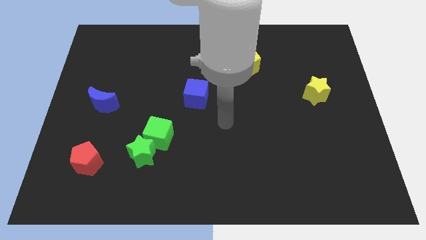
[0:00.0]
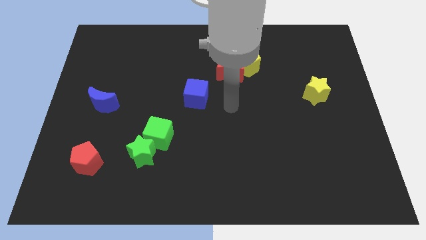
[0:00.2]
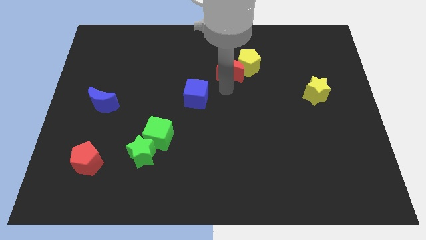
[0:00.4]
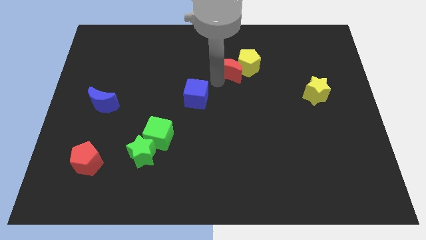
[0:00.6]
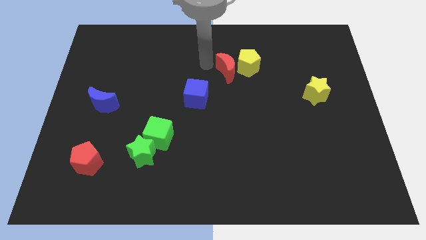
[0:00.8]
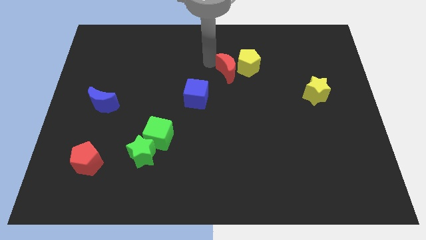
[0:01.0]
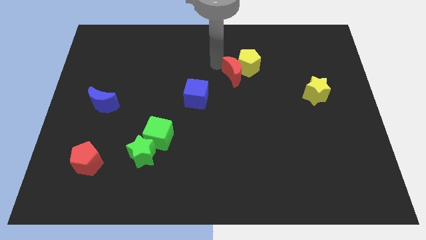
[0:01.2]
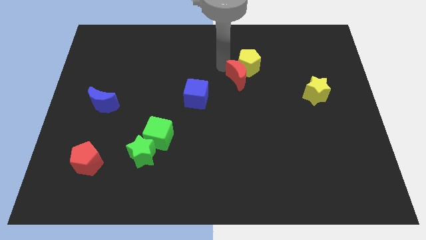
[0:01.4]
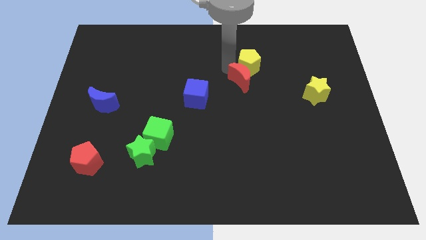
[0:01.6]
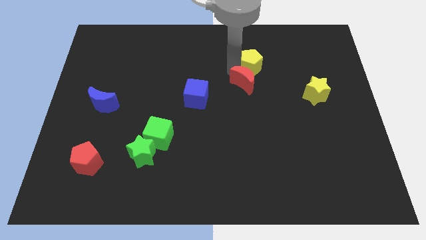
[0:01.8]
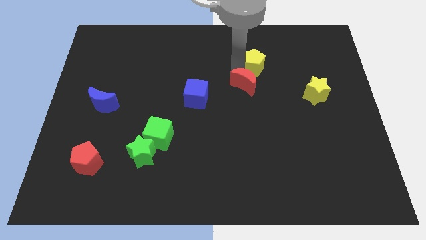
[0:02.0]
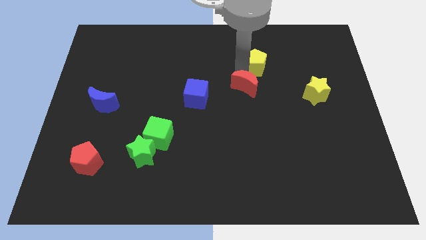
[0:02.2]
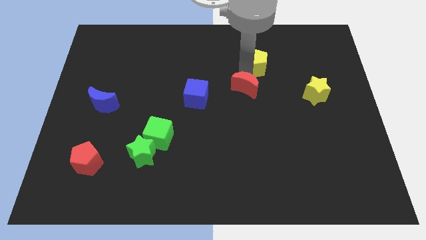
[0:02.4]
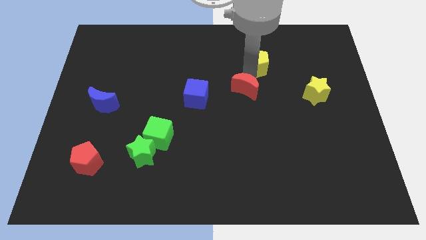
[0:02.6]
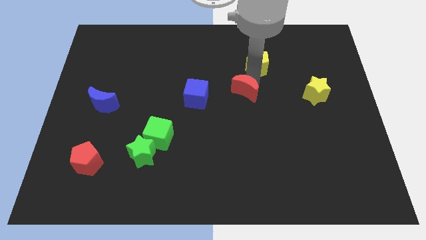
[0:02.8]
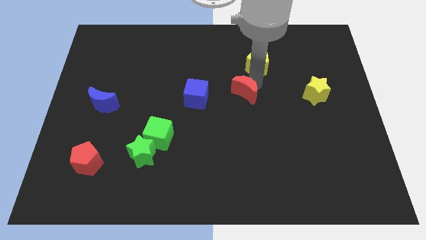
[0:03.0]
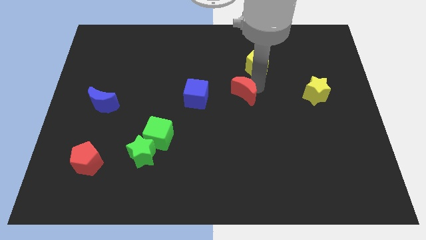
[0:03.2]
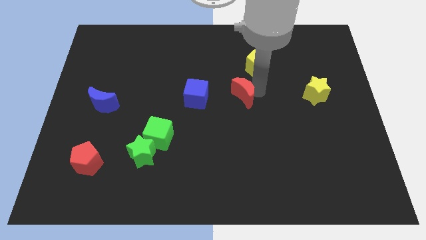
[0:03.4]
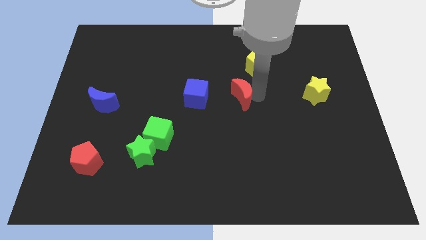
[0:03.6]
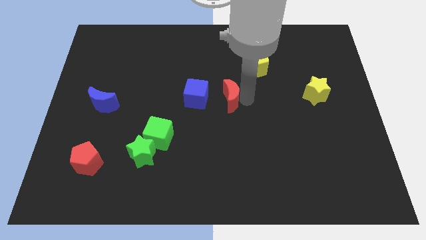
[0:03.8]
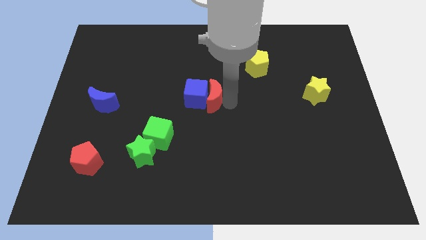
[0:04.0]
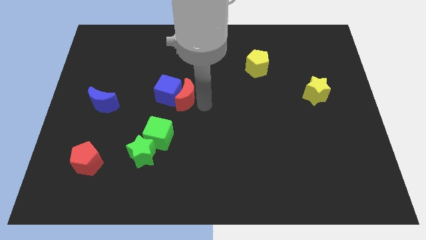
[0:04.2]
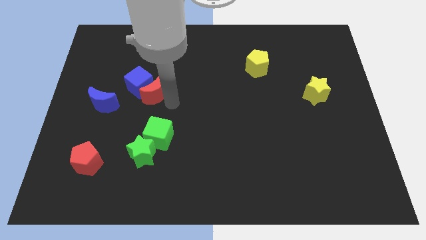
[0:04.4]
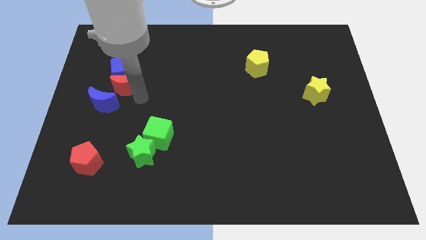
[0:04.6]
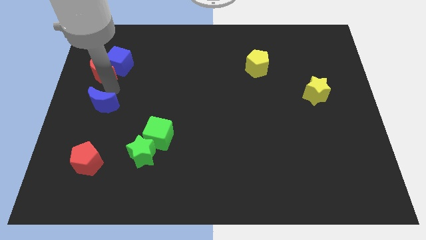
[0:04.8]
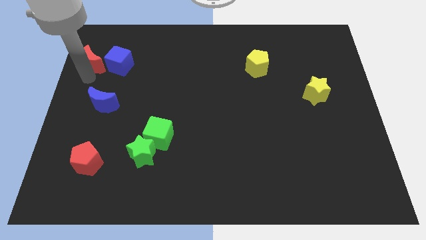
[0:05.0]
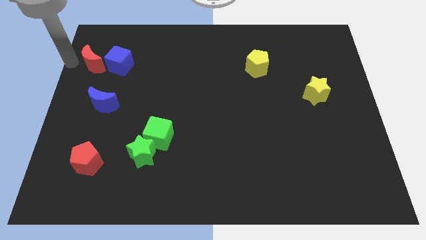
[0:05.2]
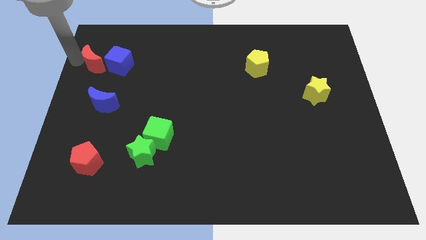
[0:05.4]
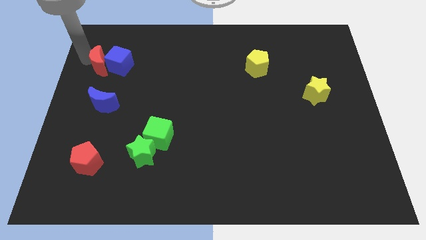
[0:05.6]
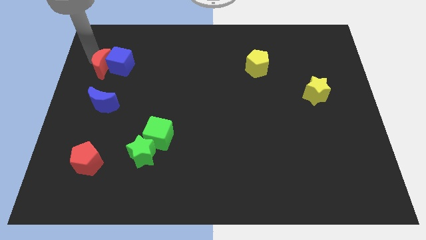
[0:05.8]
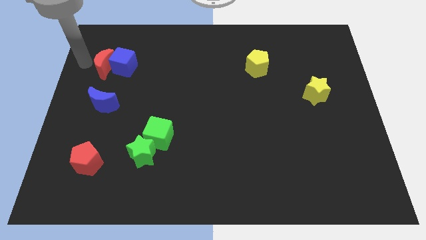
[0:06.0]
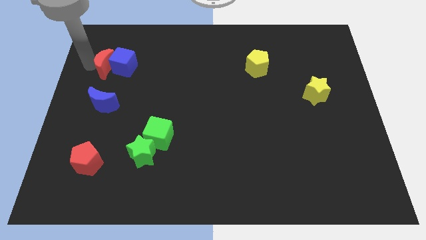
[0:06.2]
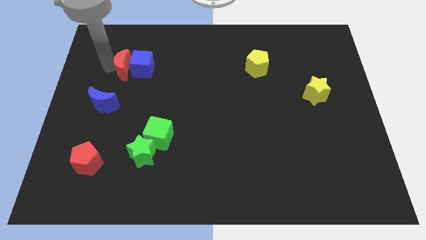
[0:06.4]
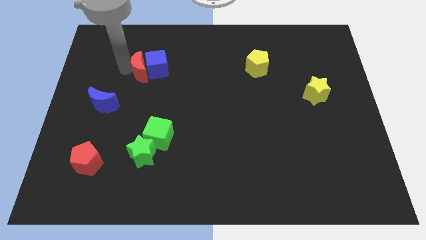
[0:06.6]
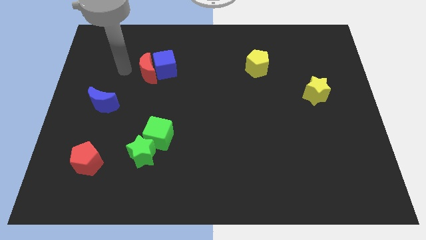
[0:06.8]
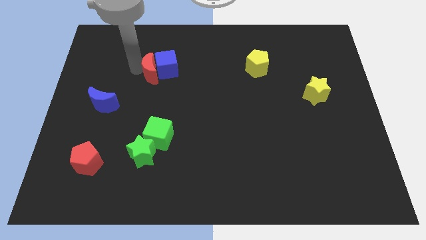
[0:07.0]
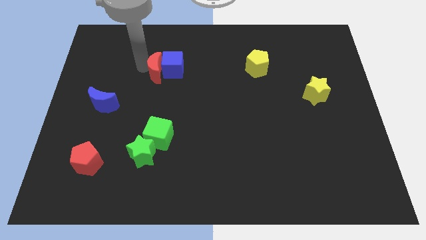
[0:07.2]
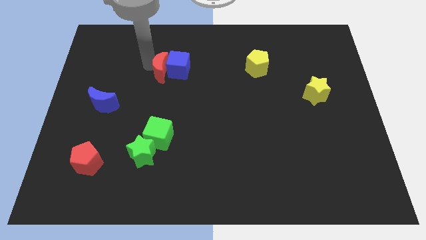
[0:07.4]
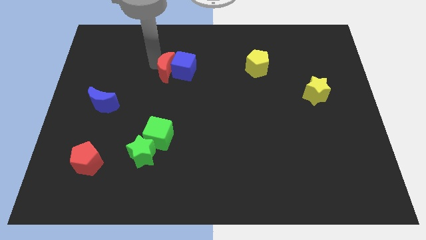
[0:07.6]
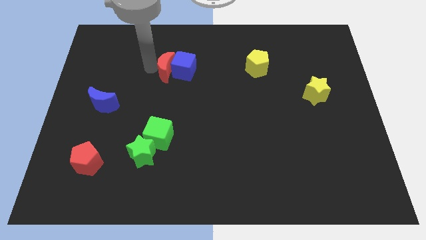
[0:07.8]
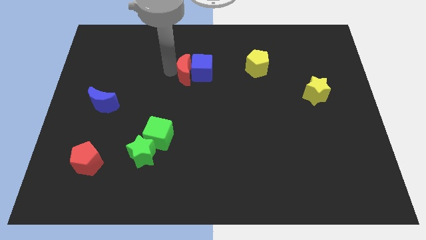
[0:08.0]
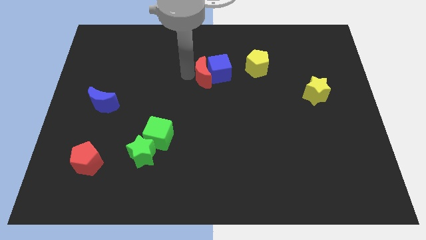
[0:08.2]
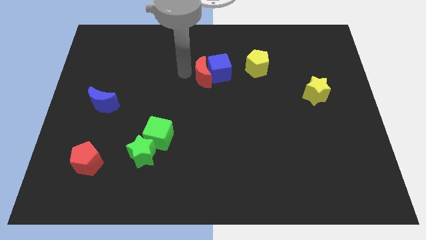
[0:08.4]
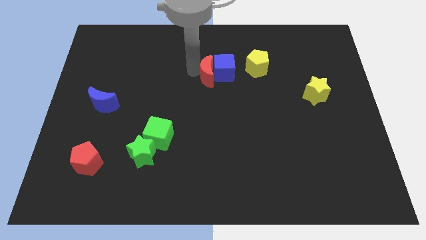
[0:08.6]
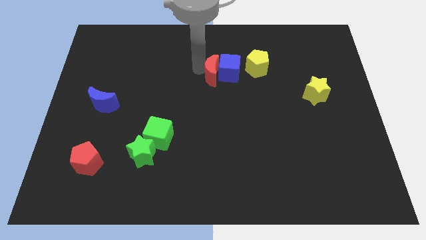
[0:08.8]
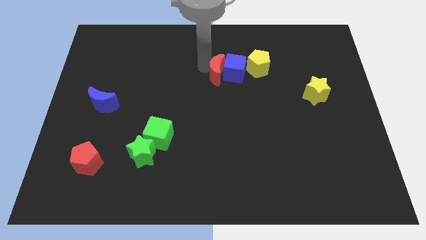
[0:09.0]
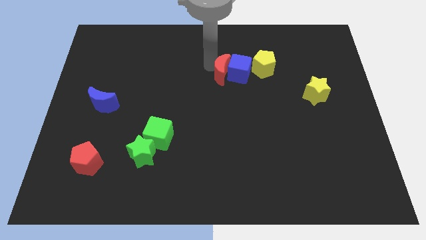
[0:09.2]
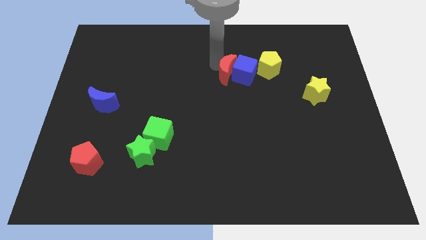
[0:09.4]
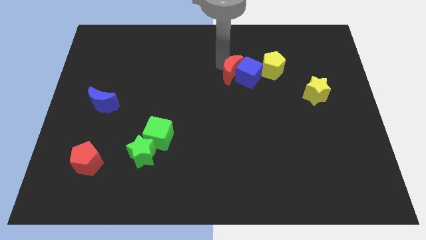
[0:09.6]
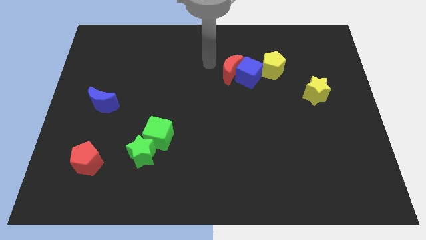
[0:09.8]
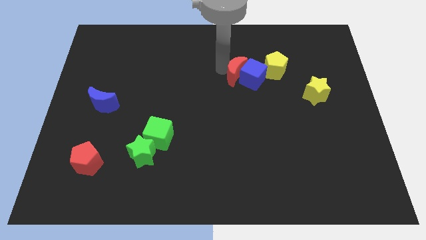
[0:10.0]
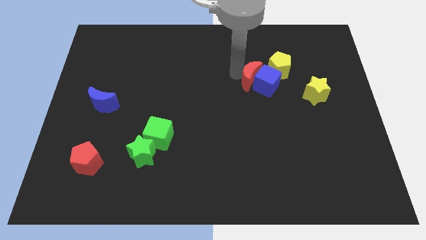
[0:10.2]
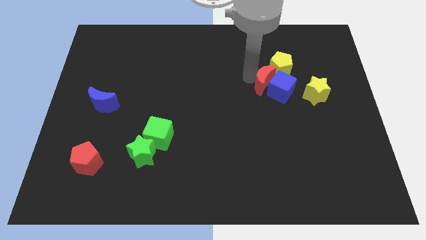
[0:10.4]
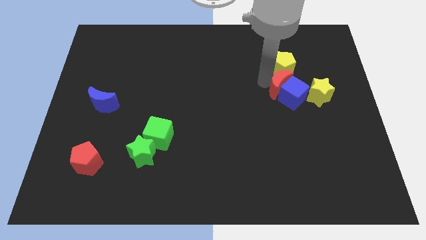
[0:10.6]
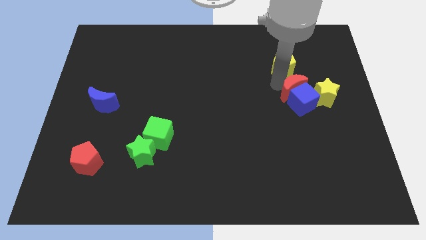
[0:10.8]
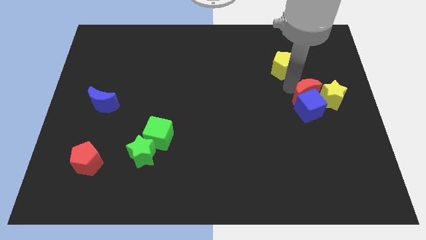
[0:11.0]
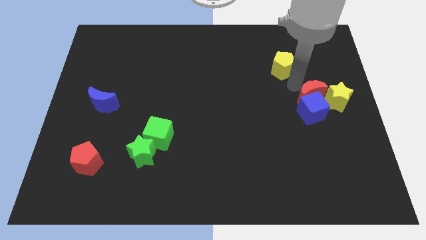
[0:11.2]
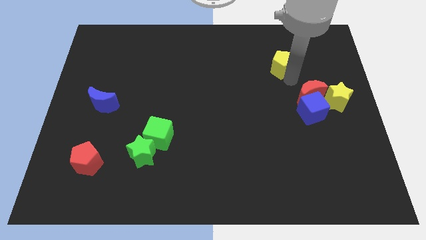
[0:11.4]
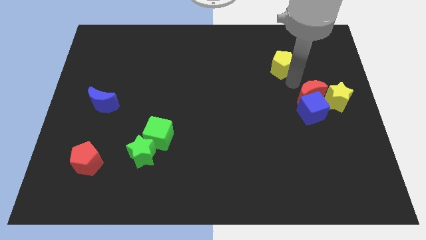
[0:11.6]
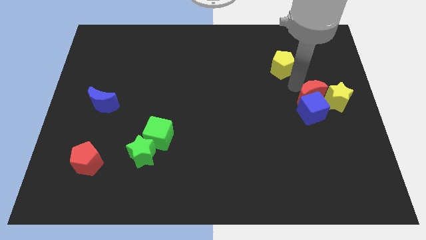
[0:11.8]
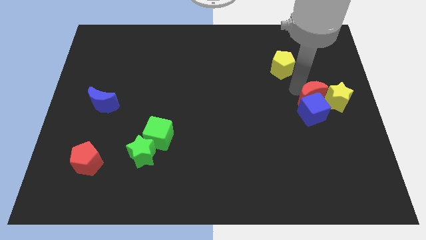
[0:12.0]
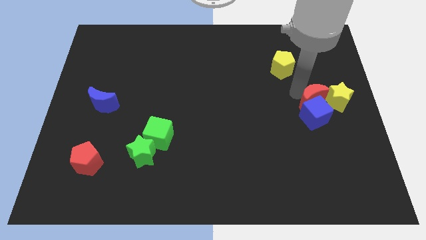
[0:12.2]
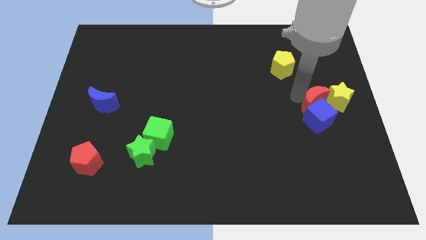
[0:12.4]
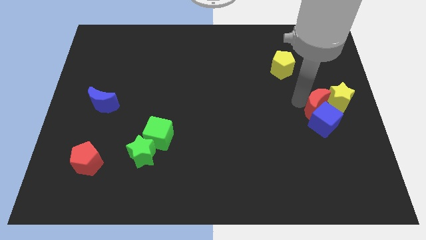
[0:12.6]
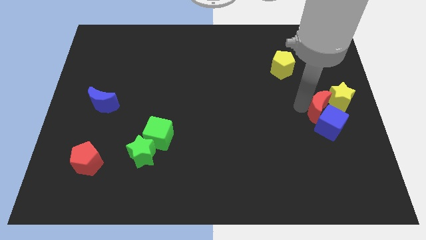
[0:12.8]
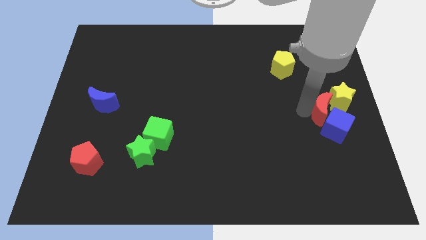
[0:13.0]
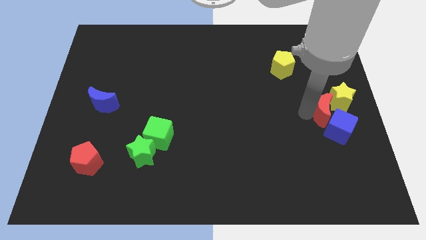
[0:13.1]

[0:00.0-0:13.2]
slide the red moon to the right side of the board
